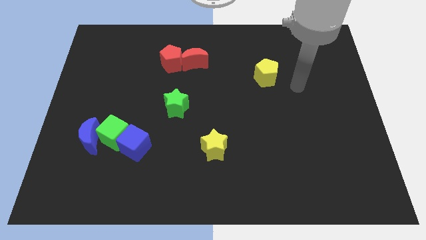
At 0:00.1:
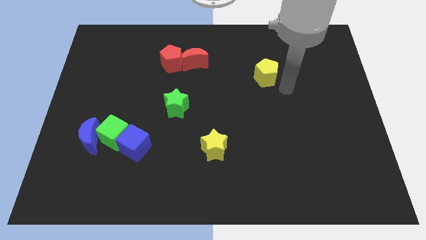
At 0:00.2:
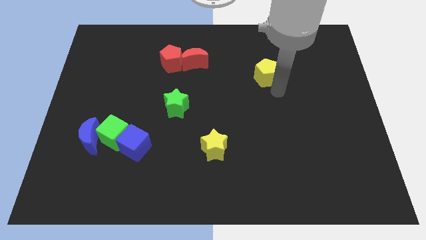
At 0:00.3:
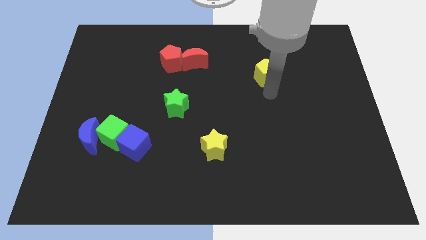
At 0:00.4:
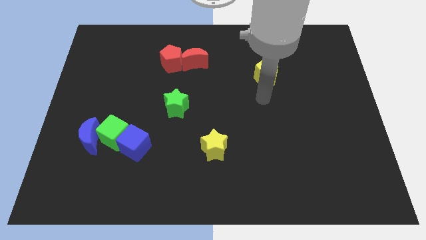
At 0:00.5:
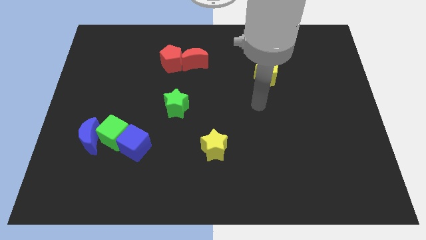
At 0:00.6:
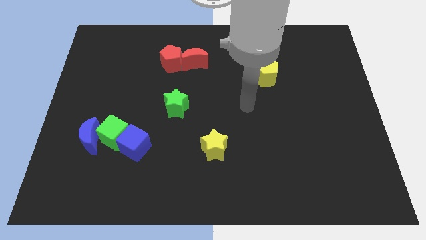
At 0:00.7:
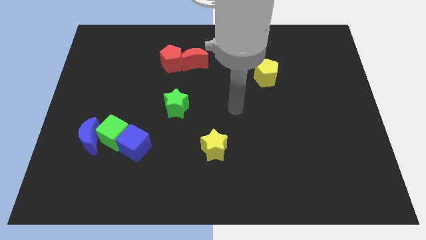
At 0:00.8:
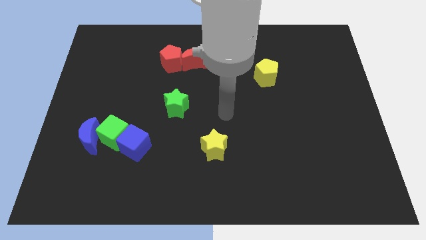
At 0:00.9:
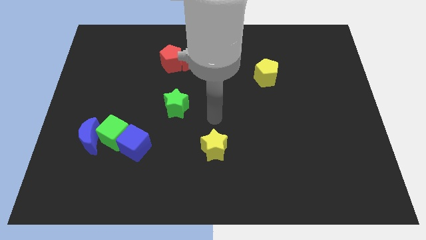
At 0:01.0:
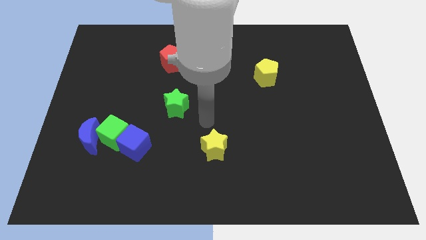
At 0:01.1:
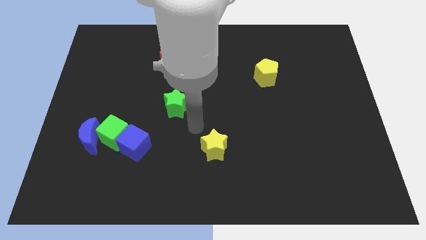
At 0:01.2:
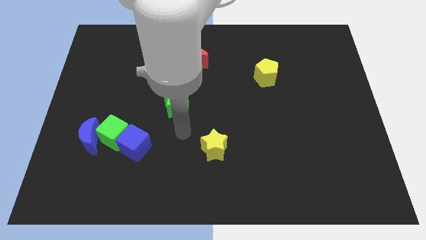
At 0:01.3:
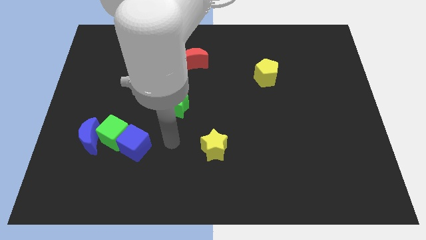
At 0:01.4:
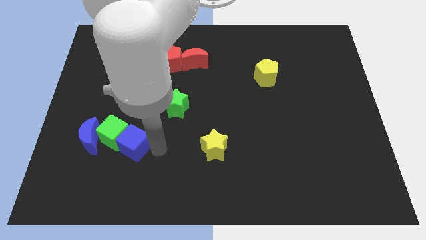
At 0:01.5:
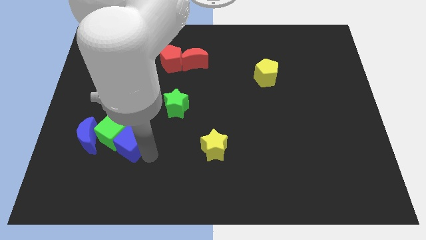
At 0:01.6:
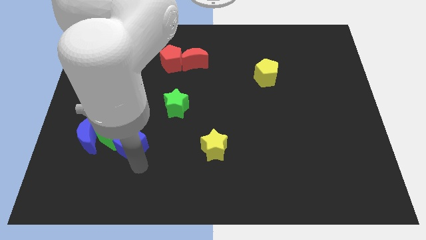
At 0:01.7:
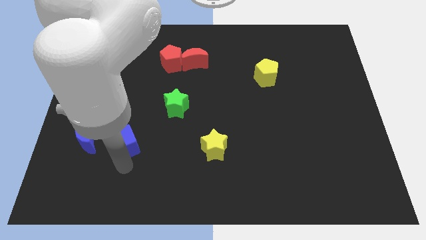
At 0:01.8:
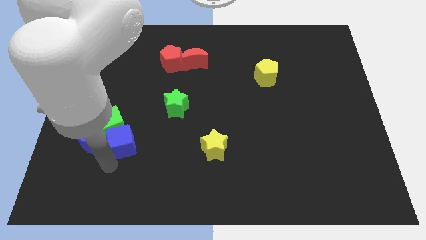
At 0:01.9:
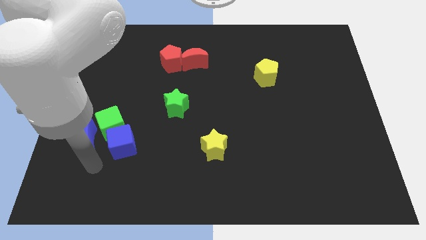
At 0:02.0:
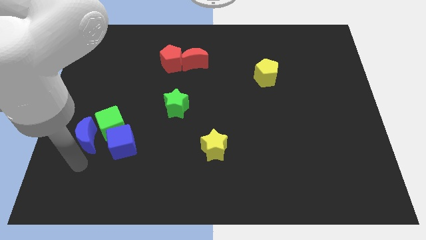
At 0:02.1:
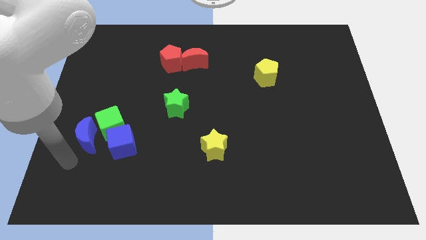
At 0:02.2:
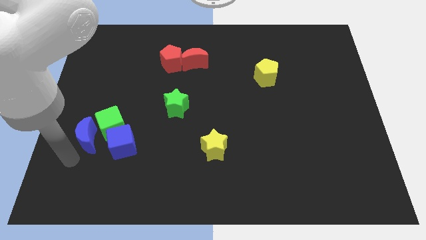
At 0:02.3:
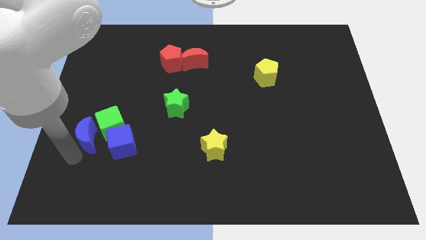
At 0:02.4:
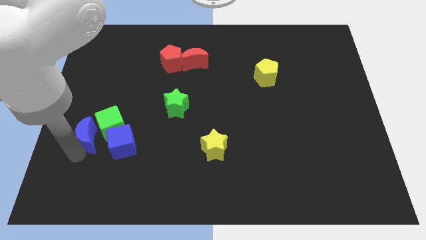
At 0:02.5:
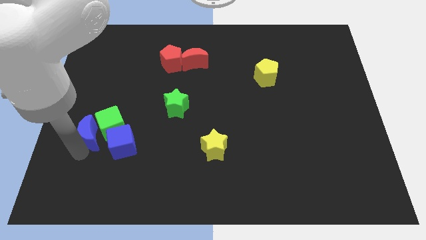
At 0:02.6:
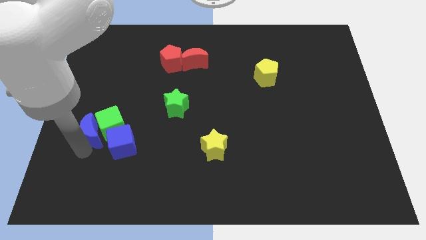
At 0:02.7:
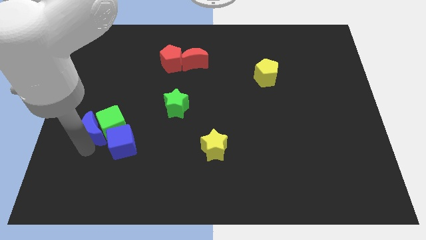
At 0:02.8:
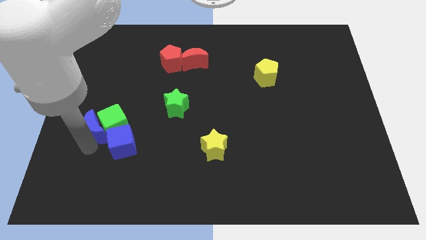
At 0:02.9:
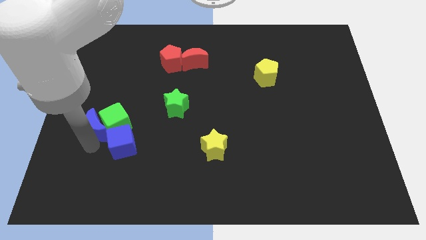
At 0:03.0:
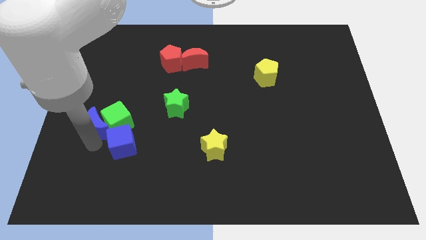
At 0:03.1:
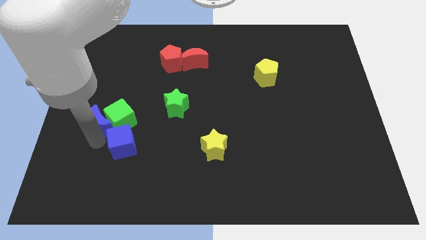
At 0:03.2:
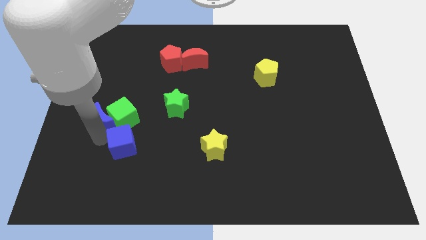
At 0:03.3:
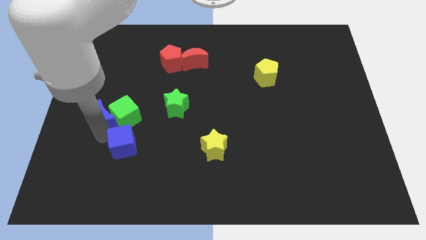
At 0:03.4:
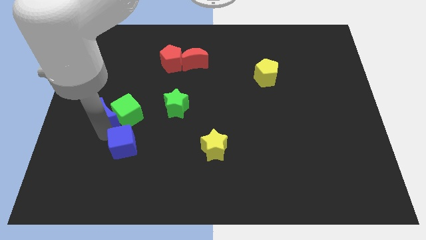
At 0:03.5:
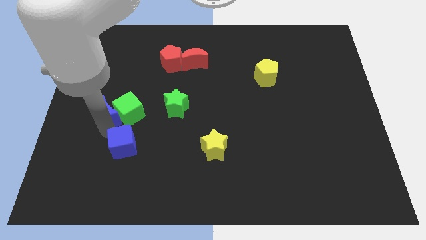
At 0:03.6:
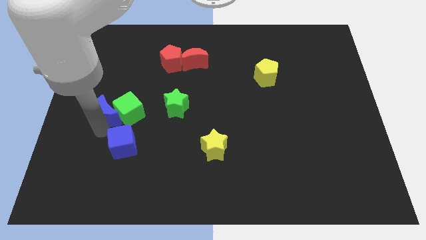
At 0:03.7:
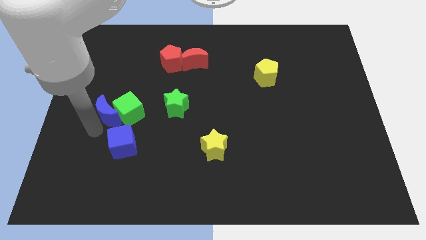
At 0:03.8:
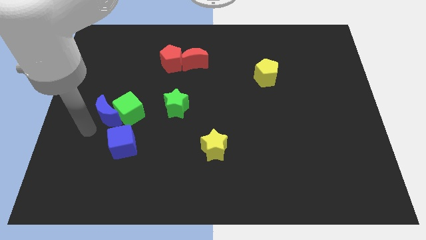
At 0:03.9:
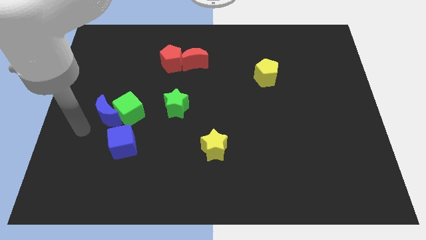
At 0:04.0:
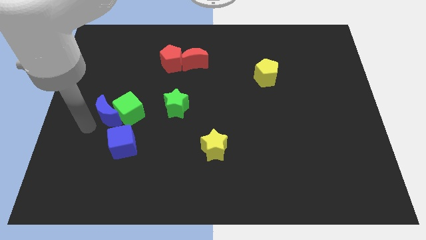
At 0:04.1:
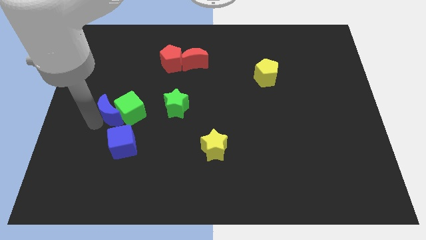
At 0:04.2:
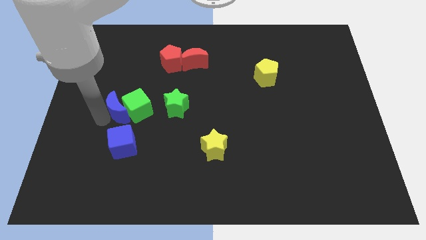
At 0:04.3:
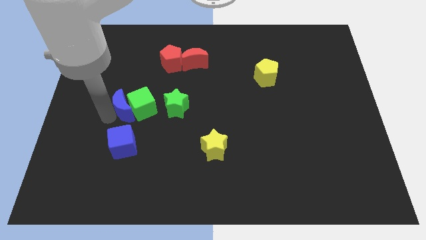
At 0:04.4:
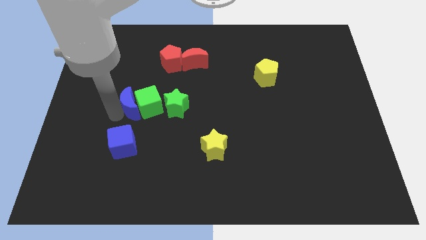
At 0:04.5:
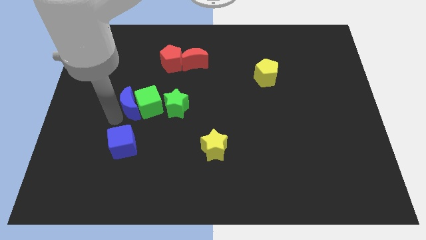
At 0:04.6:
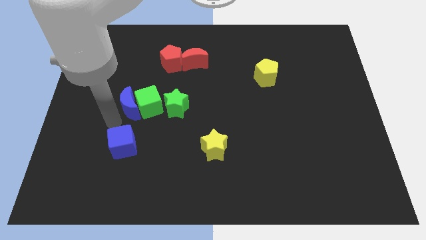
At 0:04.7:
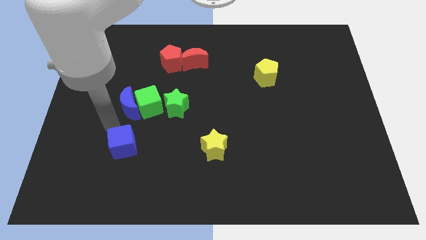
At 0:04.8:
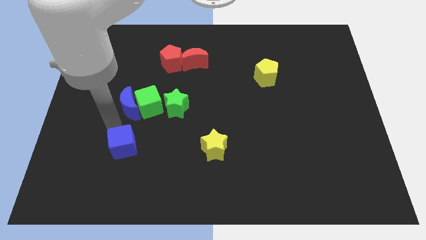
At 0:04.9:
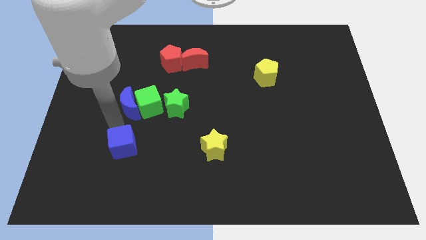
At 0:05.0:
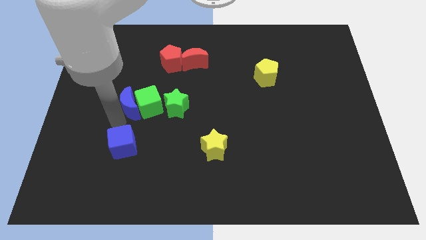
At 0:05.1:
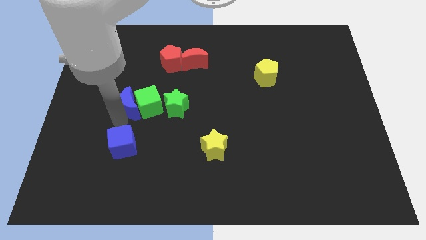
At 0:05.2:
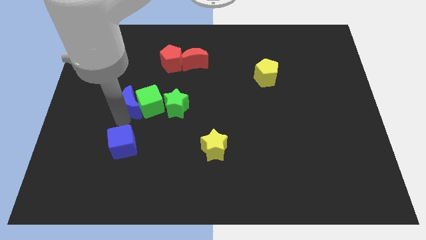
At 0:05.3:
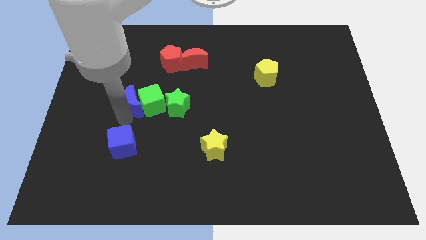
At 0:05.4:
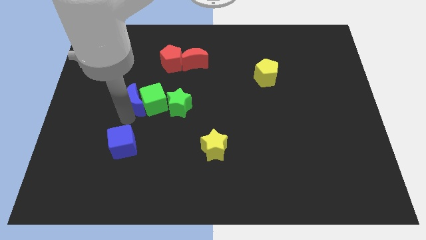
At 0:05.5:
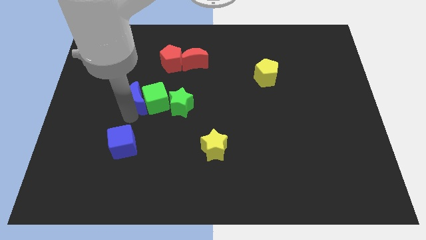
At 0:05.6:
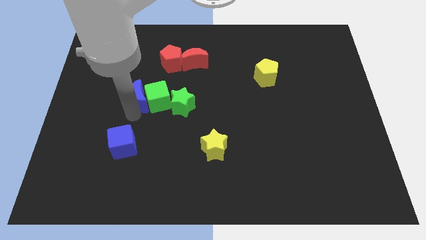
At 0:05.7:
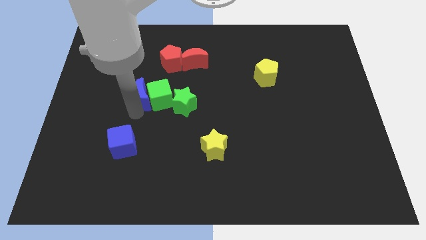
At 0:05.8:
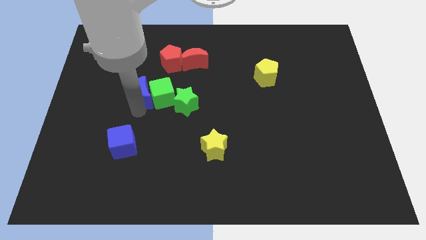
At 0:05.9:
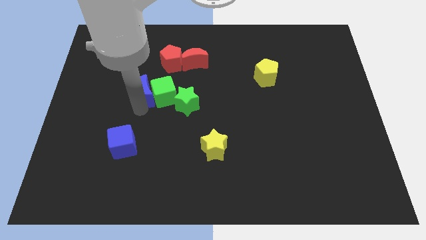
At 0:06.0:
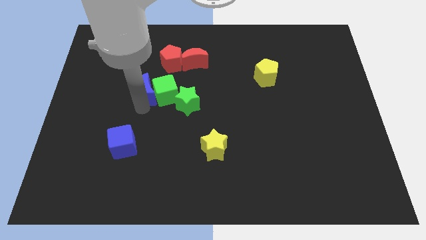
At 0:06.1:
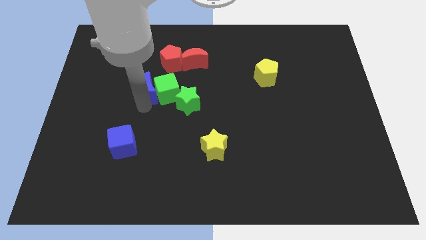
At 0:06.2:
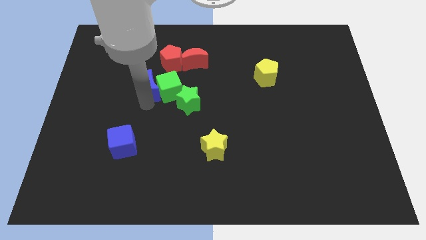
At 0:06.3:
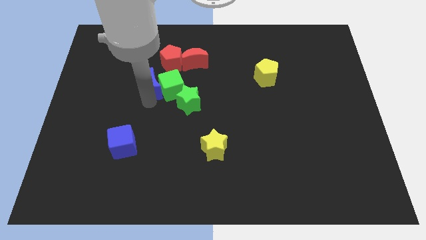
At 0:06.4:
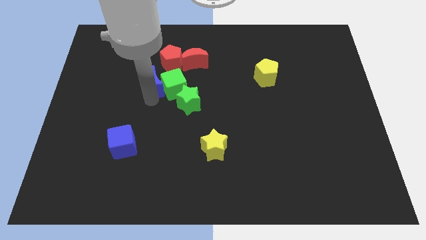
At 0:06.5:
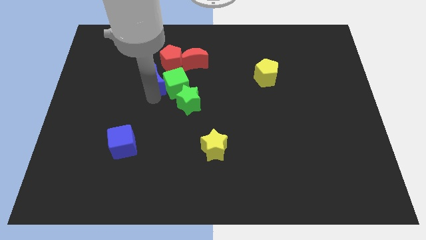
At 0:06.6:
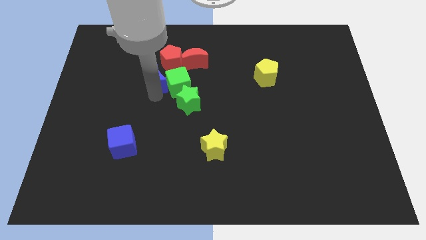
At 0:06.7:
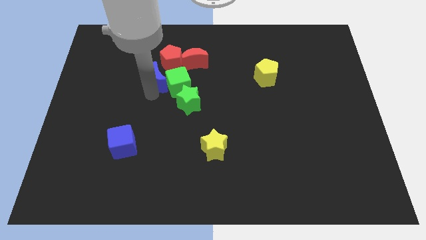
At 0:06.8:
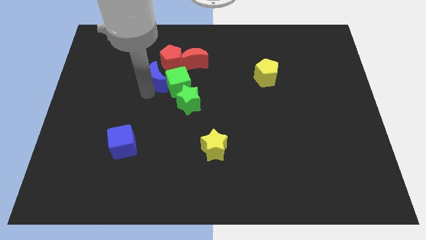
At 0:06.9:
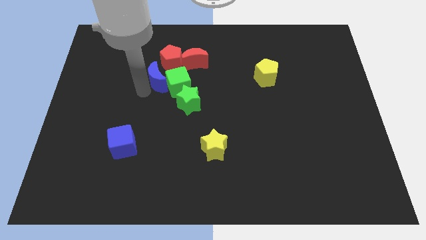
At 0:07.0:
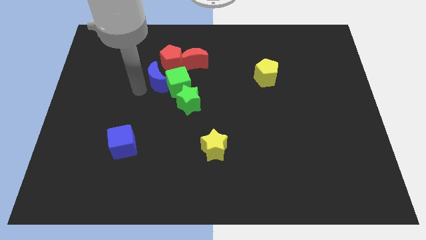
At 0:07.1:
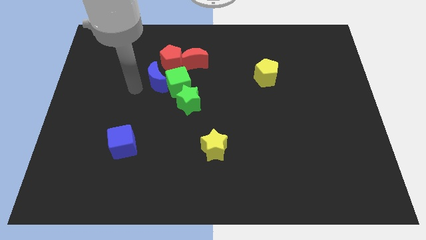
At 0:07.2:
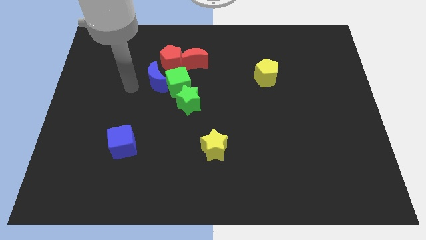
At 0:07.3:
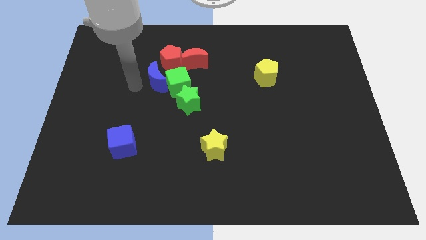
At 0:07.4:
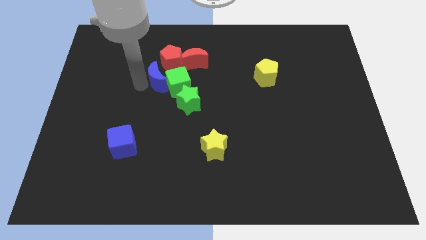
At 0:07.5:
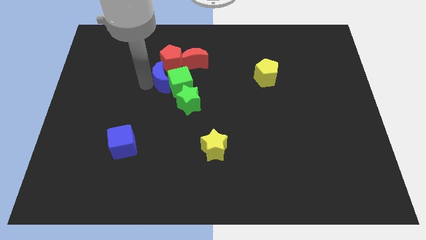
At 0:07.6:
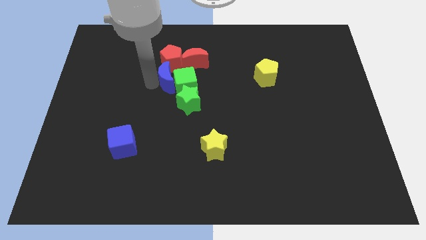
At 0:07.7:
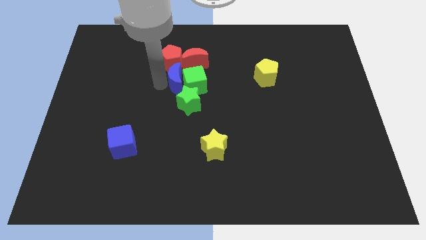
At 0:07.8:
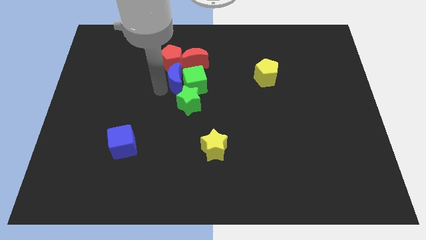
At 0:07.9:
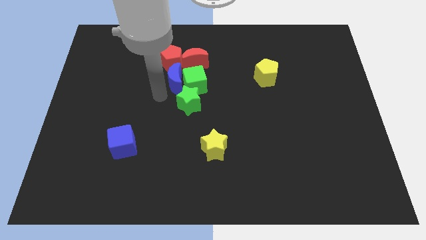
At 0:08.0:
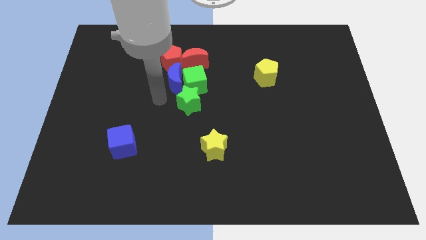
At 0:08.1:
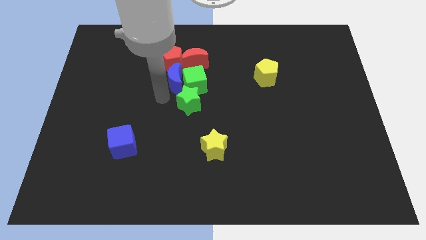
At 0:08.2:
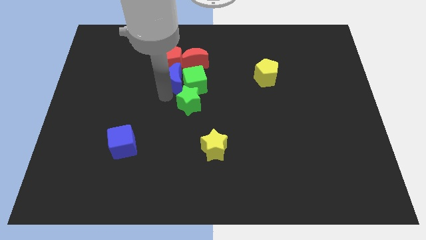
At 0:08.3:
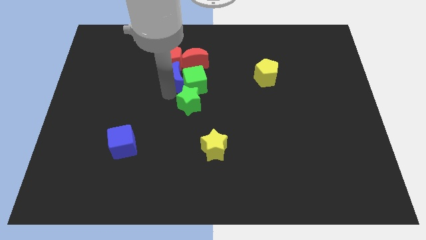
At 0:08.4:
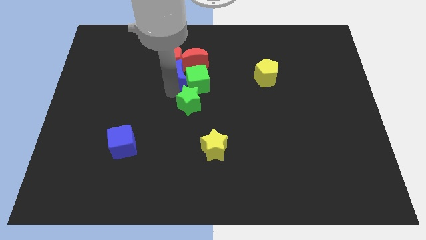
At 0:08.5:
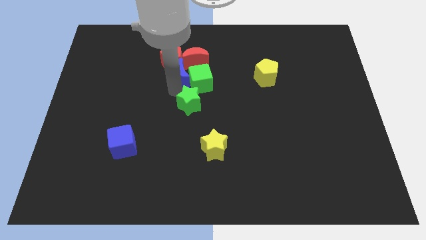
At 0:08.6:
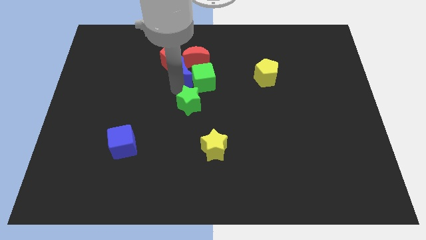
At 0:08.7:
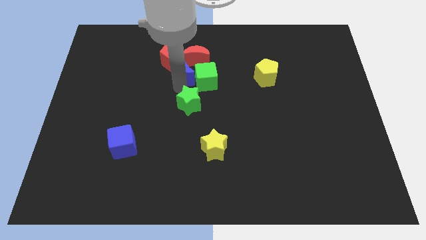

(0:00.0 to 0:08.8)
put the blue moon close to the red moon
